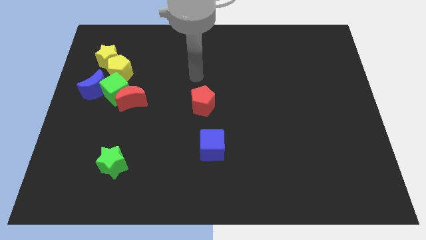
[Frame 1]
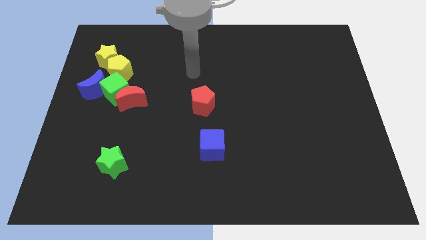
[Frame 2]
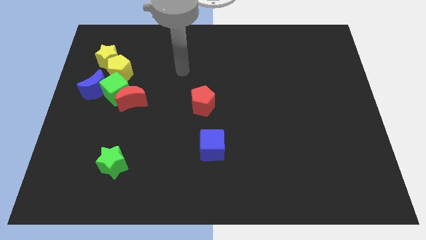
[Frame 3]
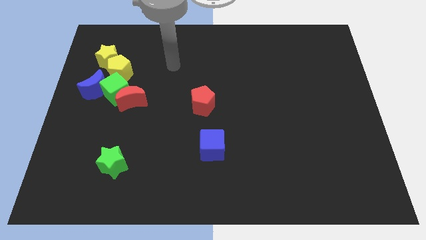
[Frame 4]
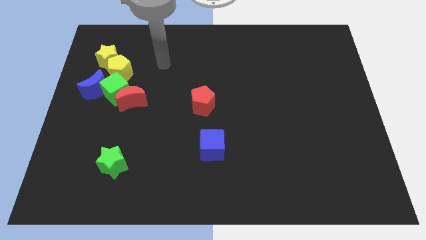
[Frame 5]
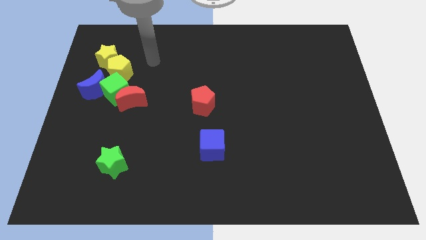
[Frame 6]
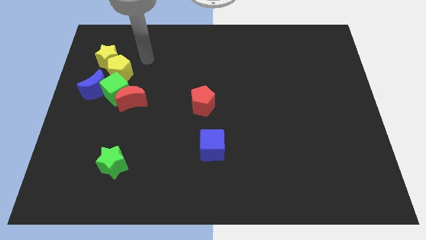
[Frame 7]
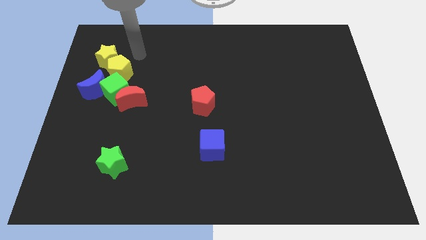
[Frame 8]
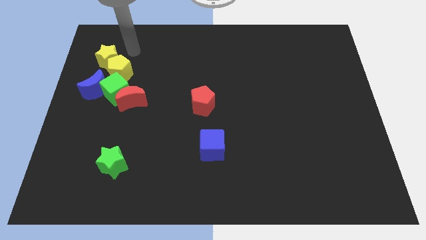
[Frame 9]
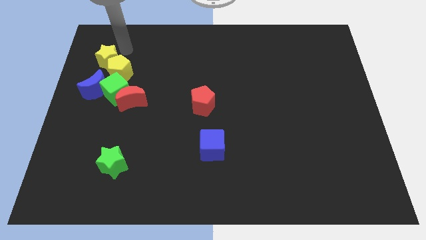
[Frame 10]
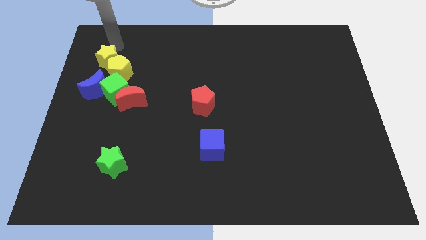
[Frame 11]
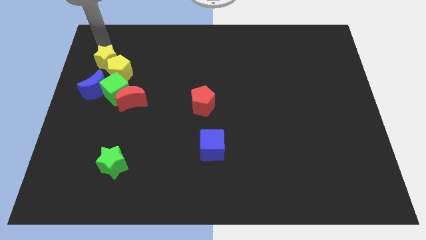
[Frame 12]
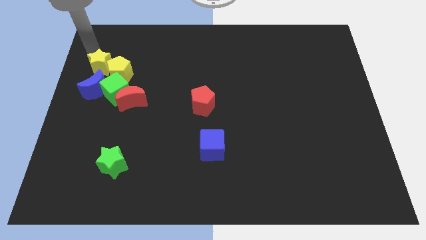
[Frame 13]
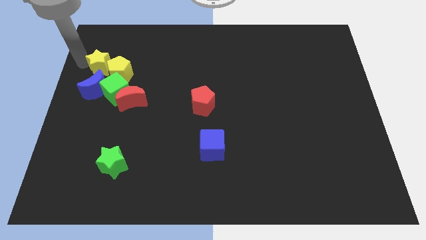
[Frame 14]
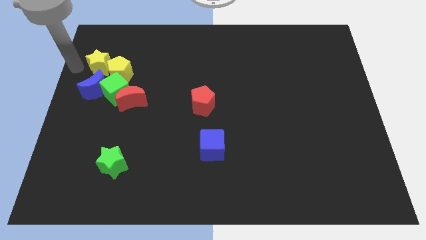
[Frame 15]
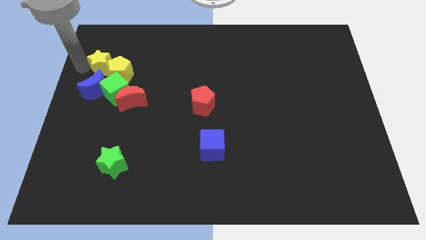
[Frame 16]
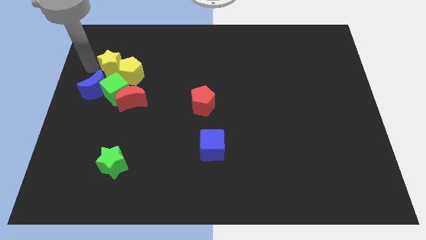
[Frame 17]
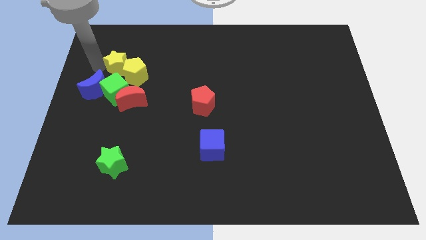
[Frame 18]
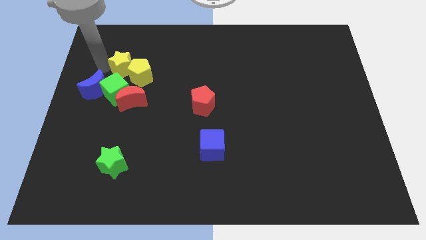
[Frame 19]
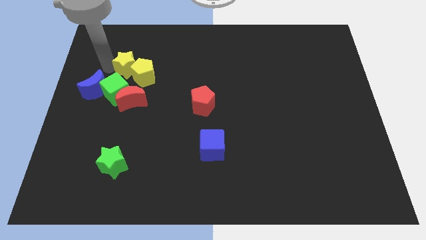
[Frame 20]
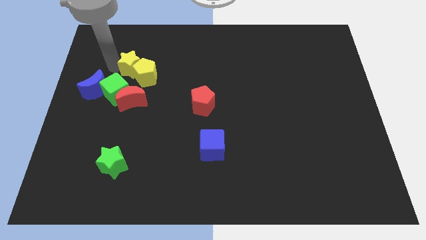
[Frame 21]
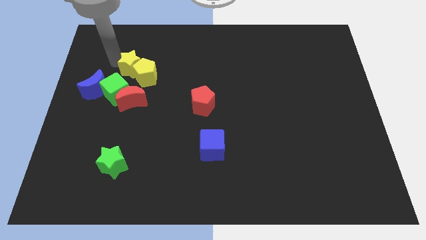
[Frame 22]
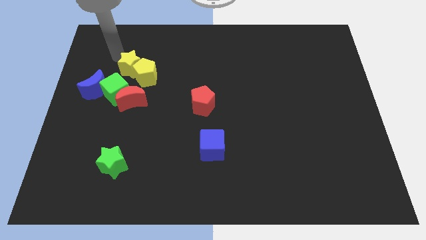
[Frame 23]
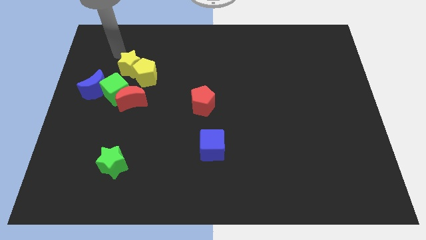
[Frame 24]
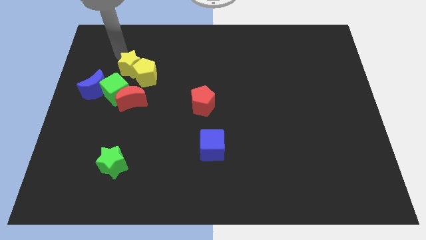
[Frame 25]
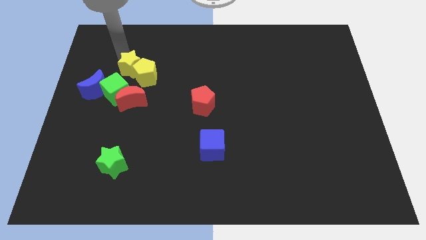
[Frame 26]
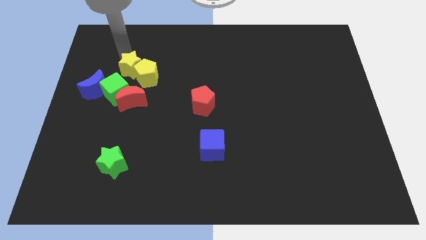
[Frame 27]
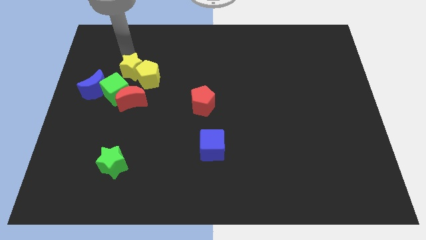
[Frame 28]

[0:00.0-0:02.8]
slide the yellow star a little down and to the right diagonally

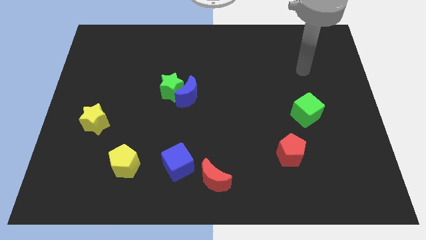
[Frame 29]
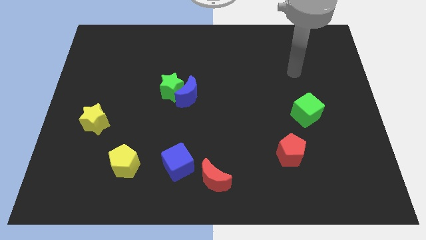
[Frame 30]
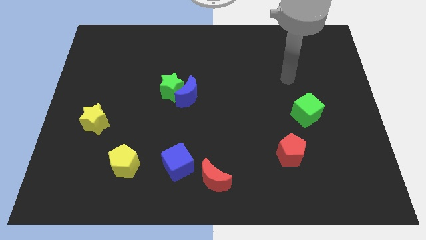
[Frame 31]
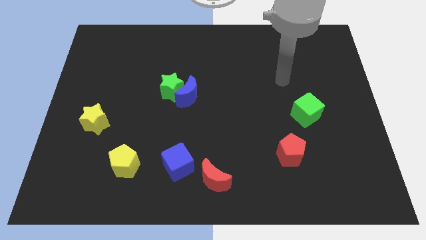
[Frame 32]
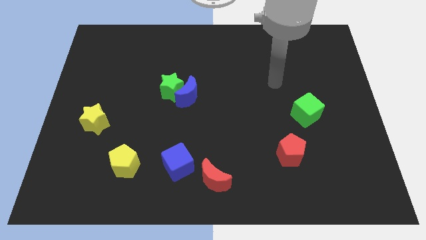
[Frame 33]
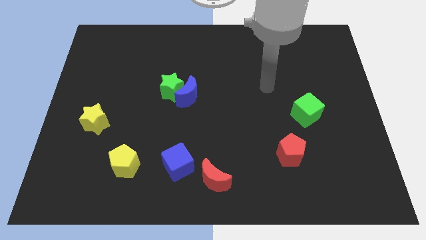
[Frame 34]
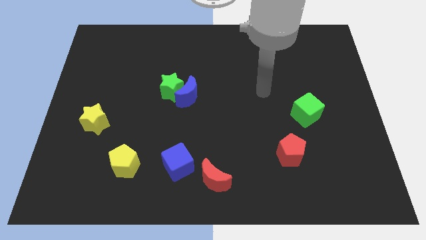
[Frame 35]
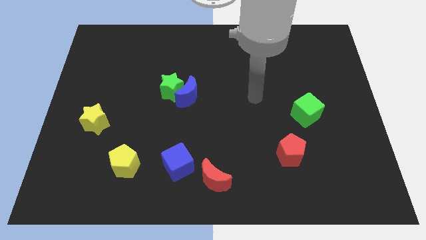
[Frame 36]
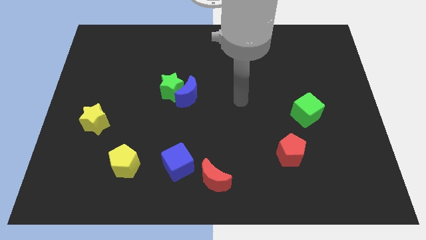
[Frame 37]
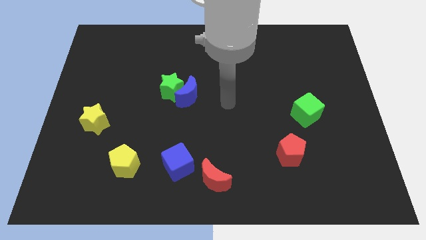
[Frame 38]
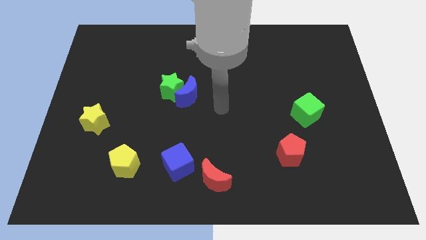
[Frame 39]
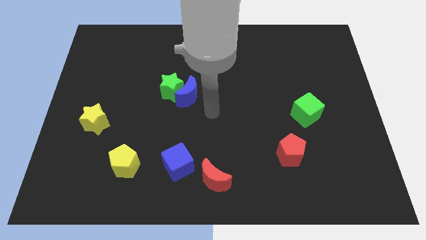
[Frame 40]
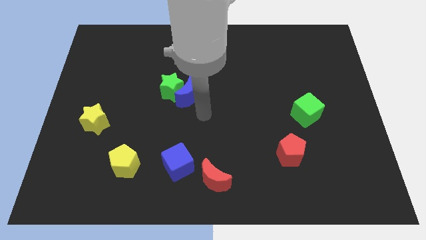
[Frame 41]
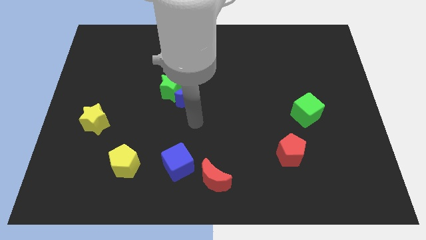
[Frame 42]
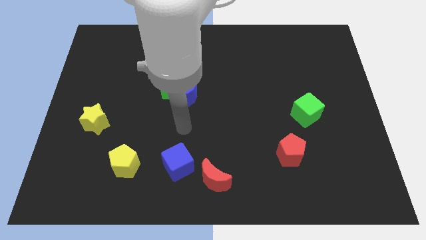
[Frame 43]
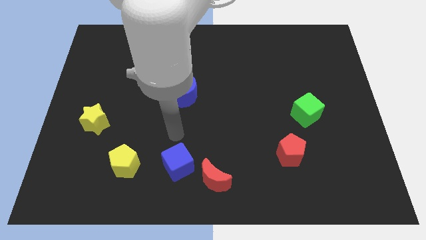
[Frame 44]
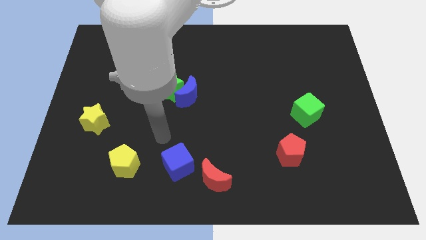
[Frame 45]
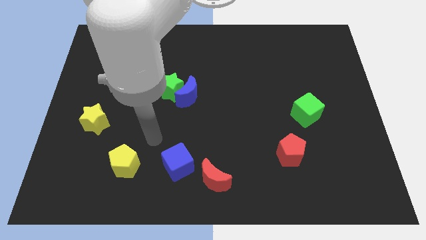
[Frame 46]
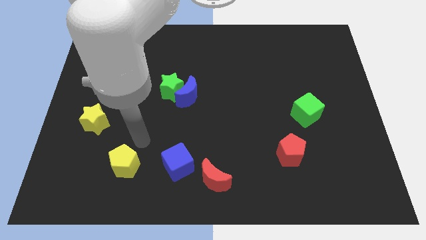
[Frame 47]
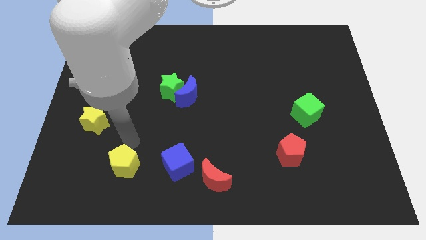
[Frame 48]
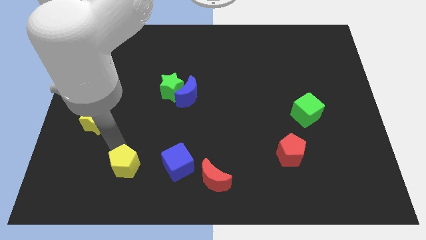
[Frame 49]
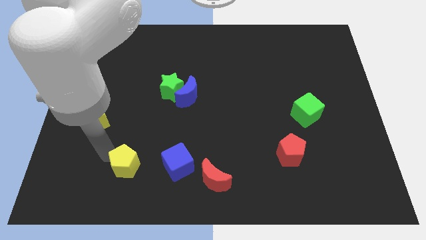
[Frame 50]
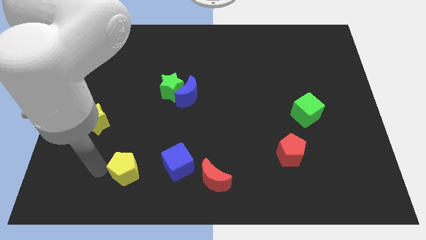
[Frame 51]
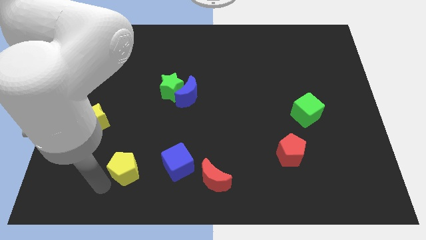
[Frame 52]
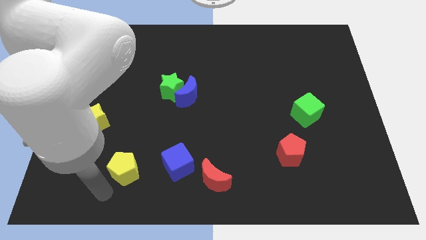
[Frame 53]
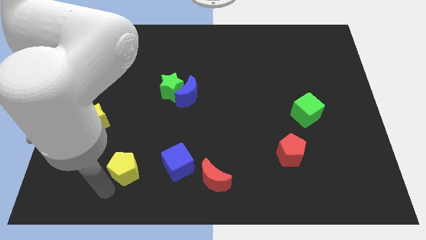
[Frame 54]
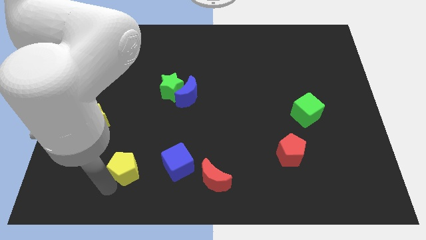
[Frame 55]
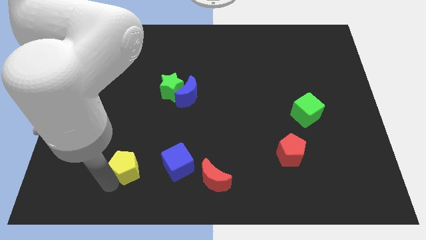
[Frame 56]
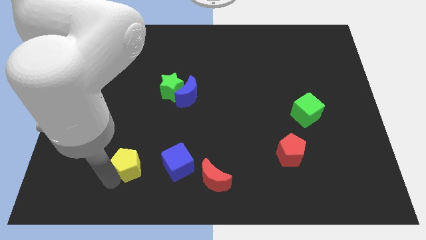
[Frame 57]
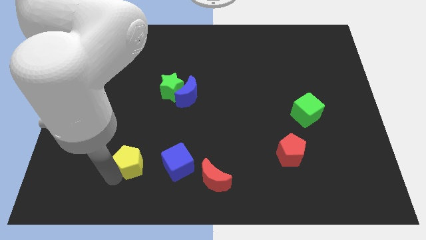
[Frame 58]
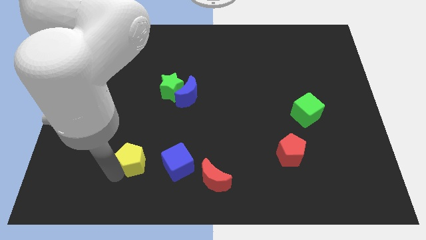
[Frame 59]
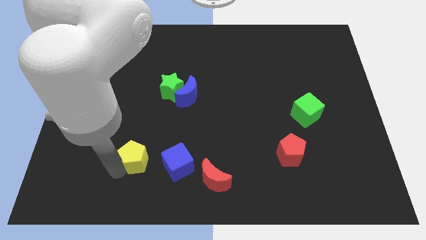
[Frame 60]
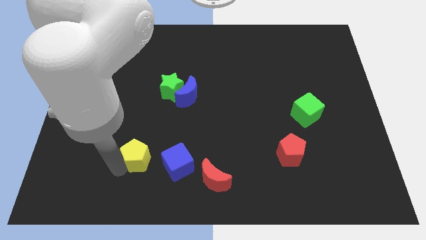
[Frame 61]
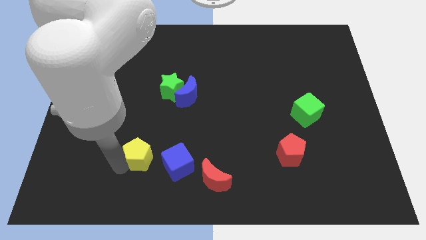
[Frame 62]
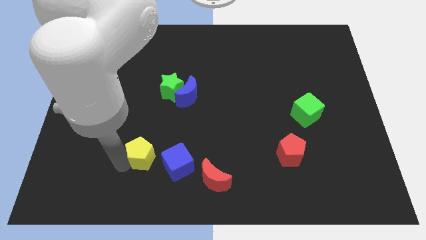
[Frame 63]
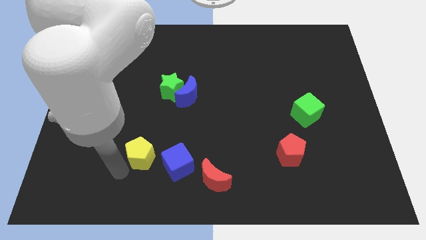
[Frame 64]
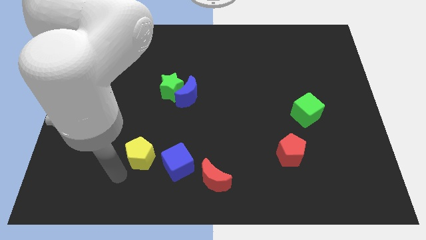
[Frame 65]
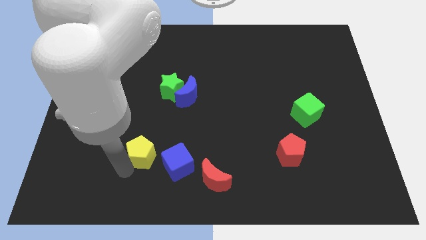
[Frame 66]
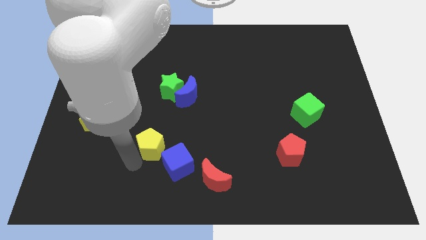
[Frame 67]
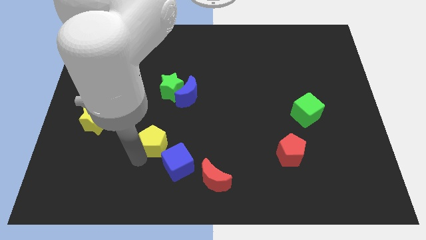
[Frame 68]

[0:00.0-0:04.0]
slightly slide the yellow pentagon up and right diagonally

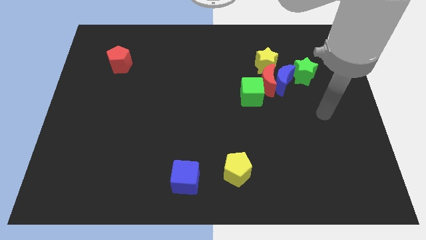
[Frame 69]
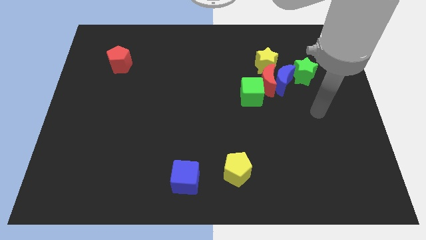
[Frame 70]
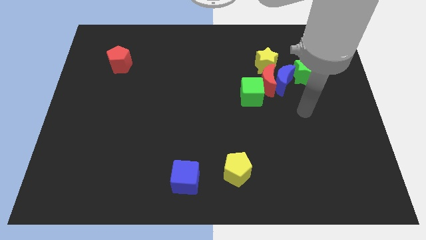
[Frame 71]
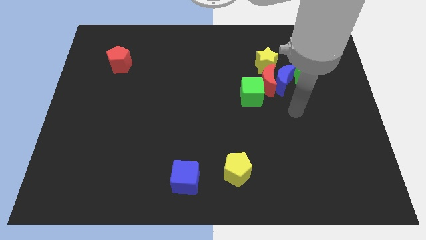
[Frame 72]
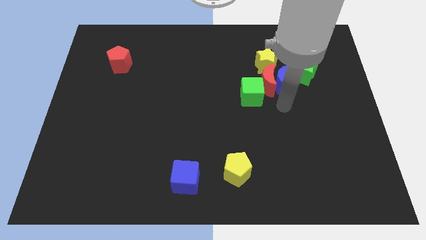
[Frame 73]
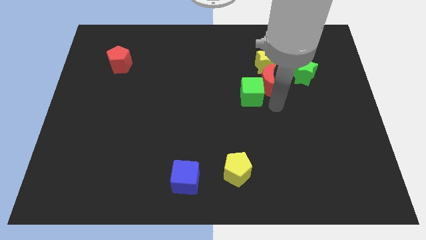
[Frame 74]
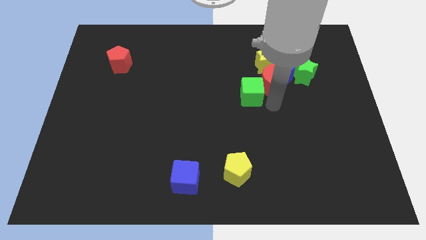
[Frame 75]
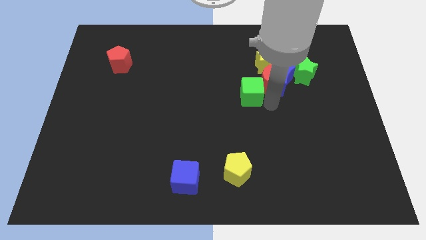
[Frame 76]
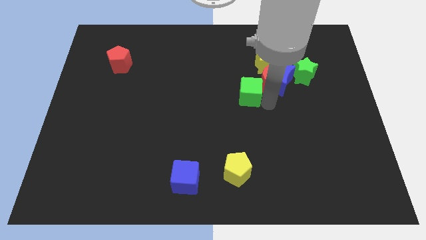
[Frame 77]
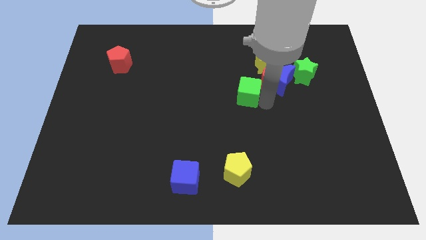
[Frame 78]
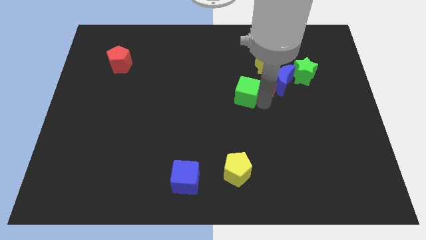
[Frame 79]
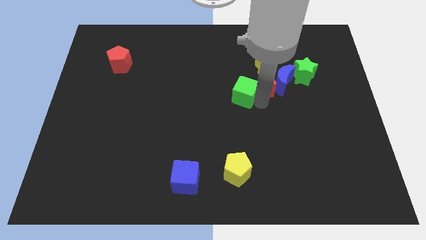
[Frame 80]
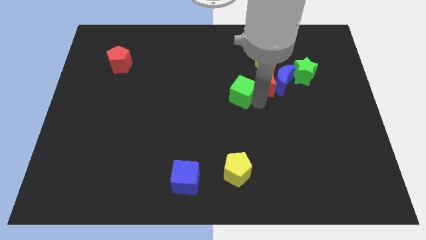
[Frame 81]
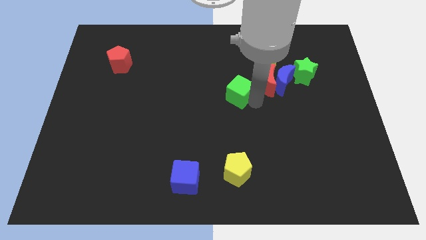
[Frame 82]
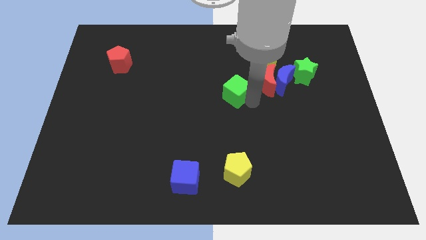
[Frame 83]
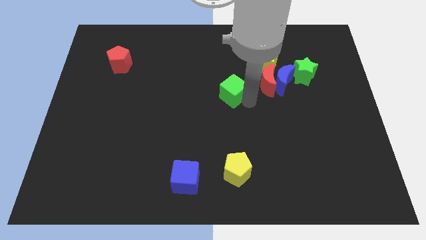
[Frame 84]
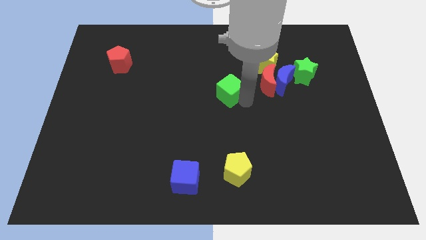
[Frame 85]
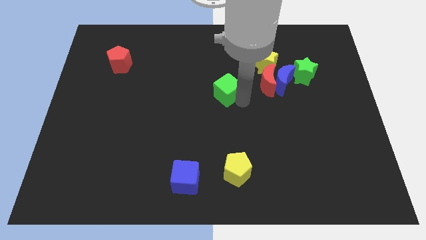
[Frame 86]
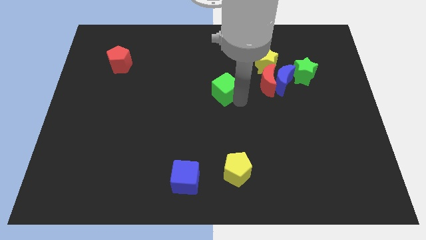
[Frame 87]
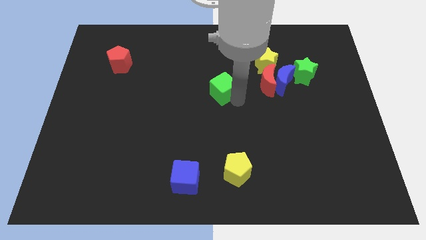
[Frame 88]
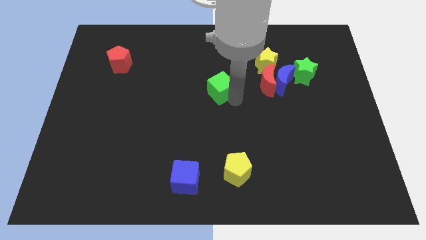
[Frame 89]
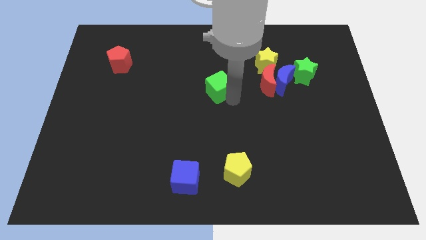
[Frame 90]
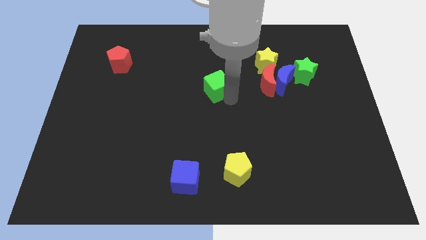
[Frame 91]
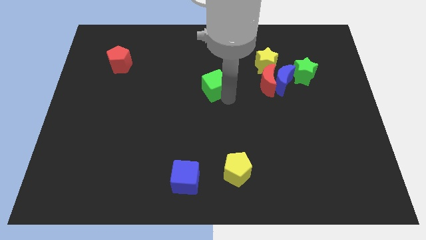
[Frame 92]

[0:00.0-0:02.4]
slightly move the green cube up and left diagonally
